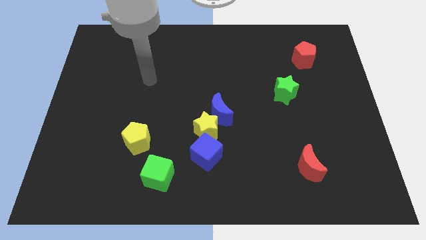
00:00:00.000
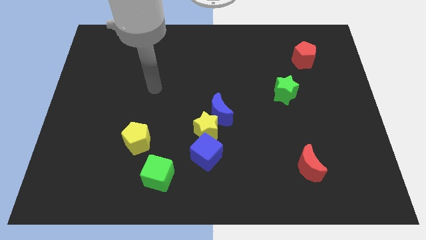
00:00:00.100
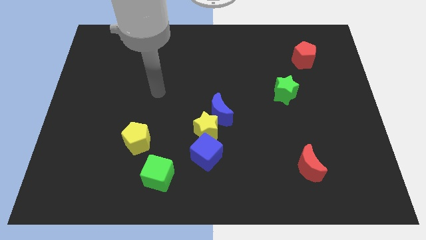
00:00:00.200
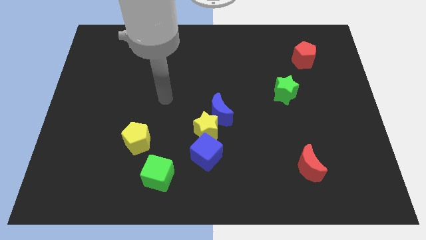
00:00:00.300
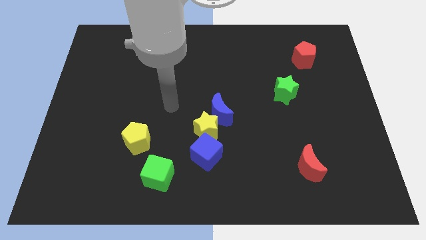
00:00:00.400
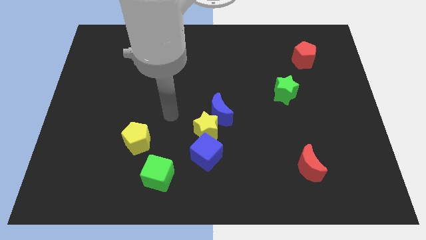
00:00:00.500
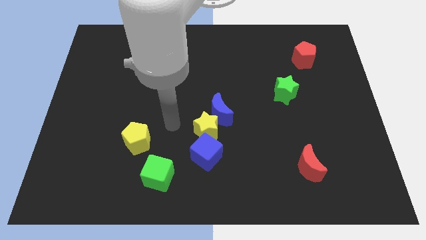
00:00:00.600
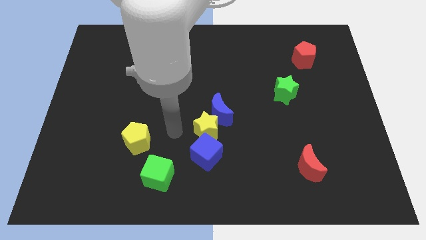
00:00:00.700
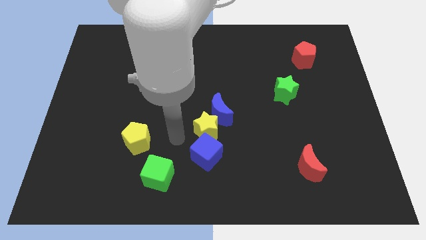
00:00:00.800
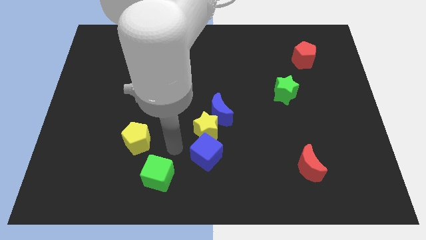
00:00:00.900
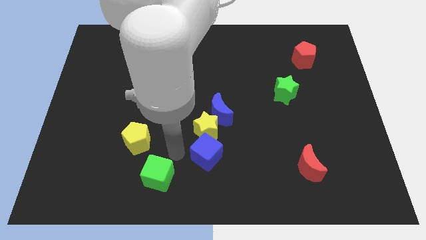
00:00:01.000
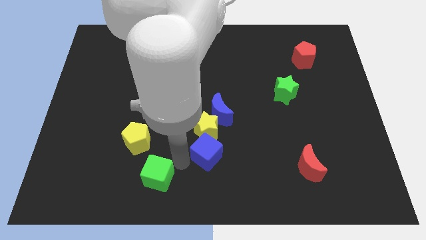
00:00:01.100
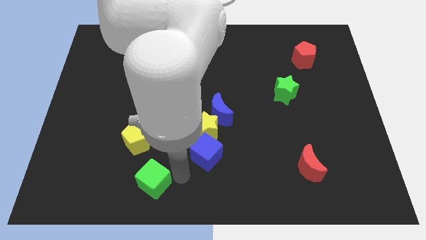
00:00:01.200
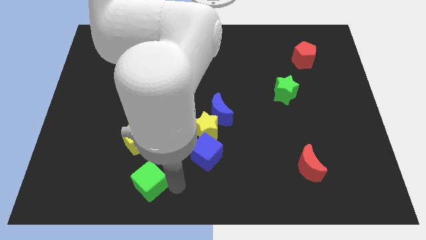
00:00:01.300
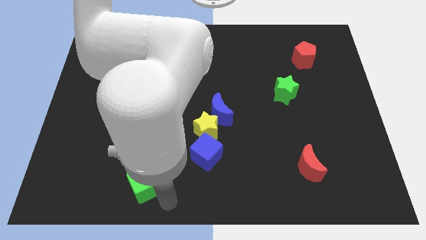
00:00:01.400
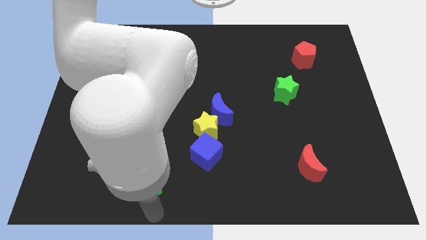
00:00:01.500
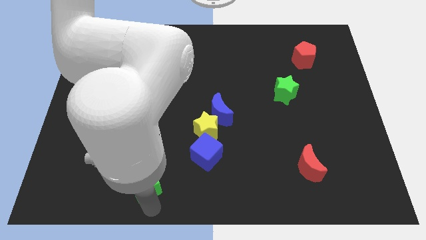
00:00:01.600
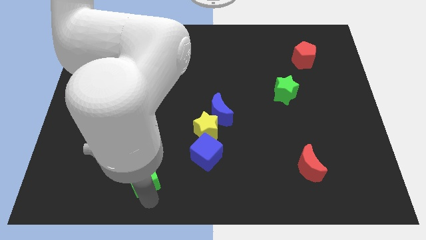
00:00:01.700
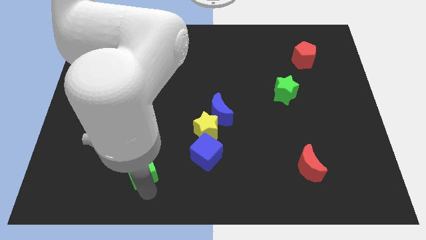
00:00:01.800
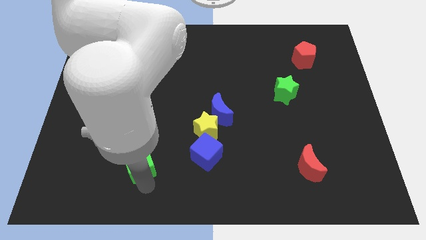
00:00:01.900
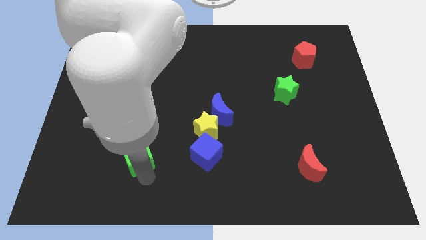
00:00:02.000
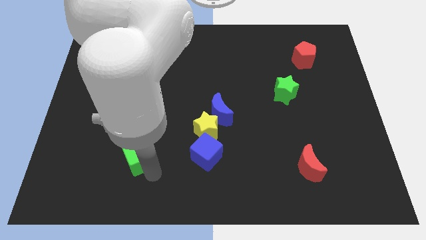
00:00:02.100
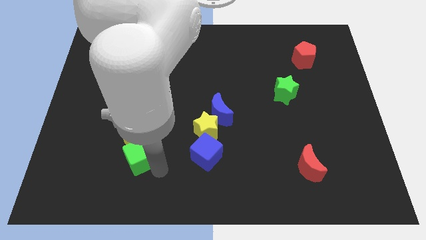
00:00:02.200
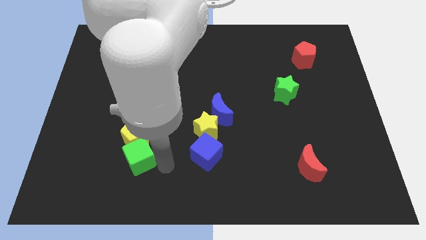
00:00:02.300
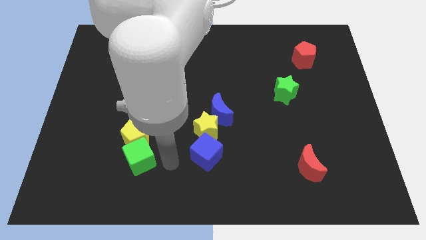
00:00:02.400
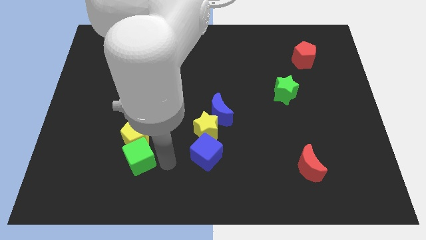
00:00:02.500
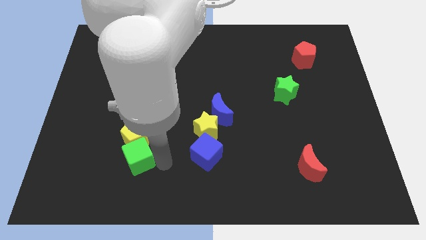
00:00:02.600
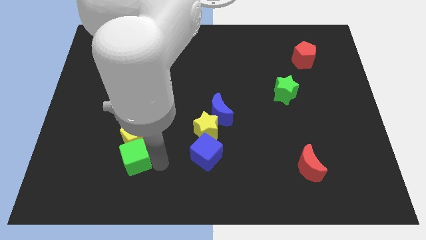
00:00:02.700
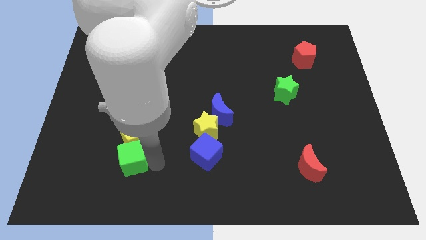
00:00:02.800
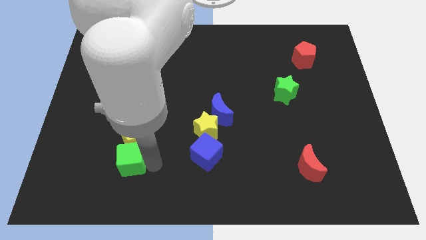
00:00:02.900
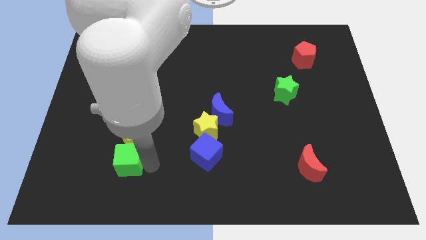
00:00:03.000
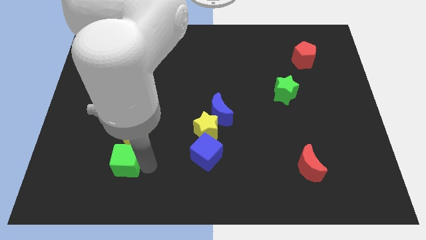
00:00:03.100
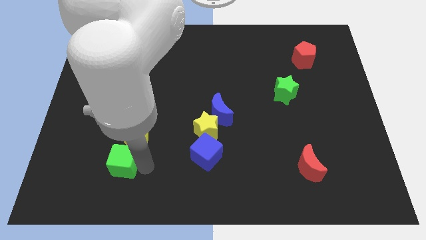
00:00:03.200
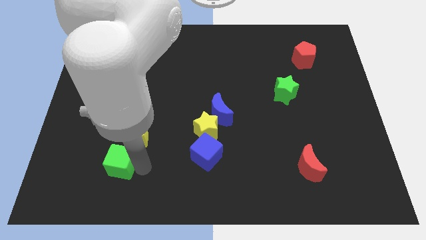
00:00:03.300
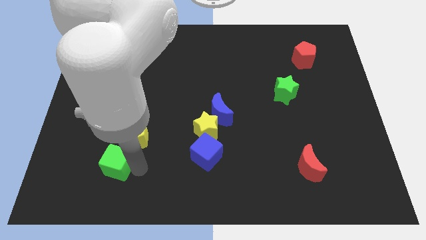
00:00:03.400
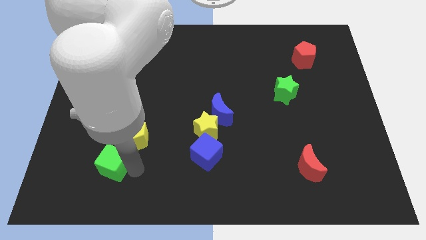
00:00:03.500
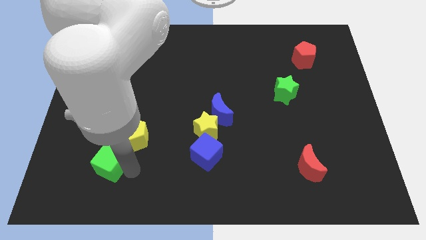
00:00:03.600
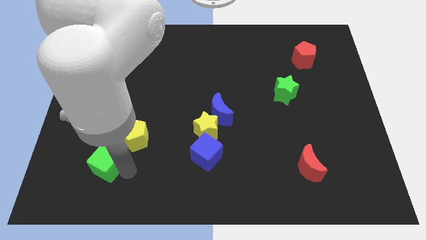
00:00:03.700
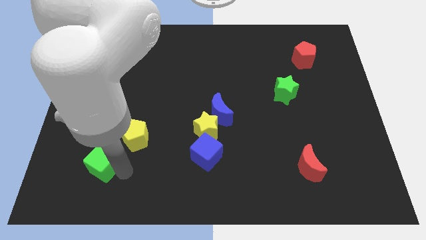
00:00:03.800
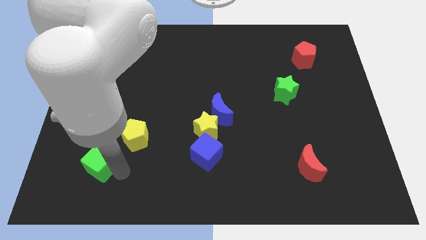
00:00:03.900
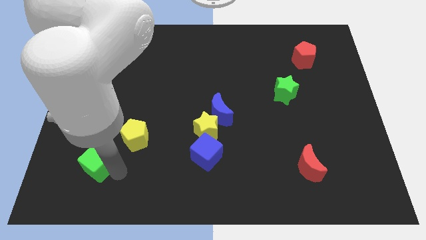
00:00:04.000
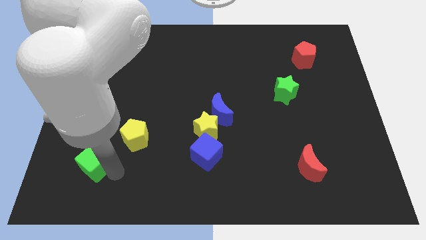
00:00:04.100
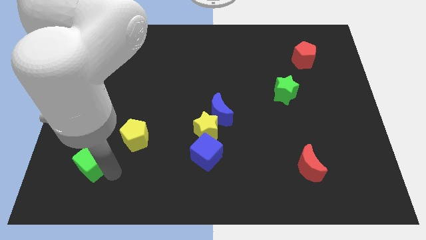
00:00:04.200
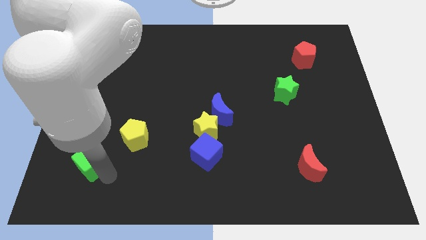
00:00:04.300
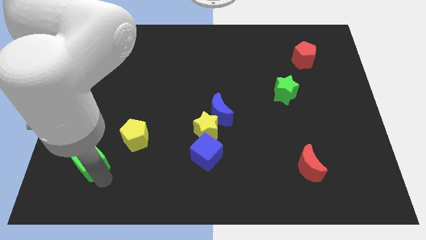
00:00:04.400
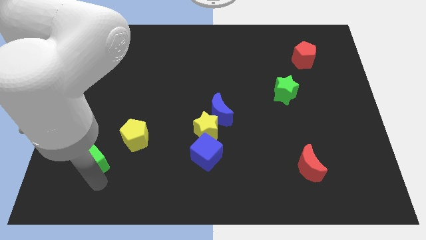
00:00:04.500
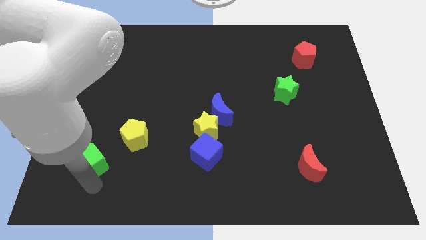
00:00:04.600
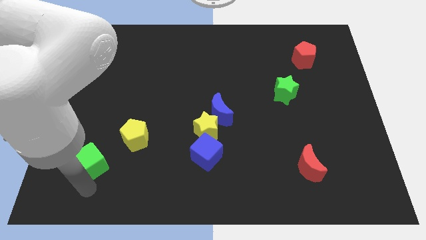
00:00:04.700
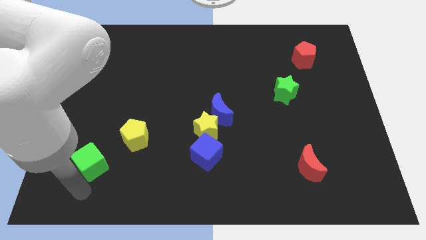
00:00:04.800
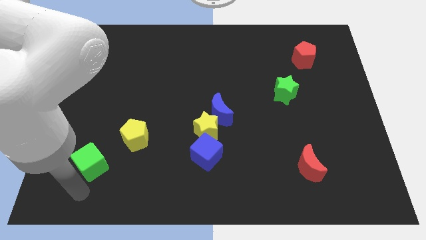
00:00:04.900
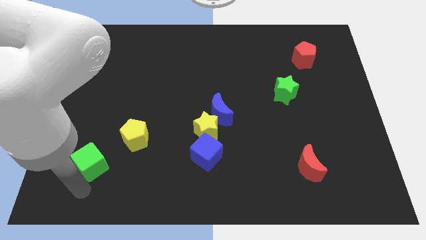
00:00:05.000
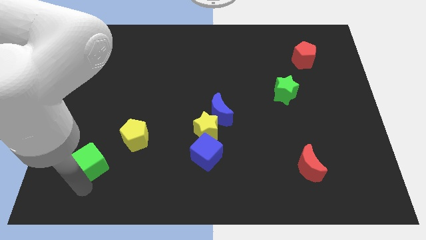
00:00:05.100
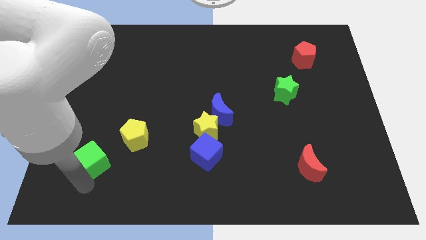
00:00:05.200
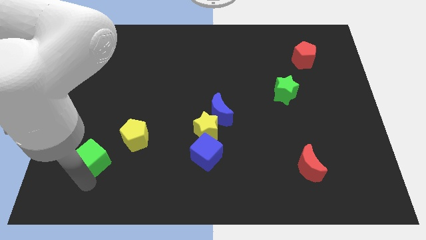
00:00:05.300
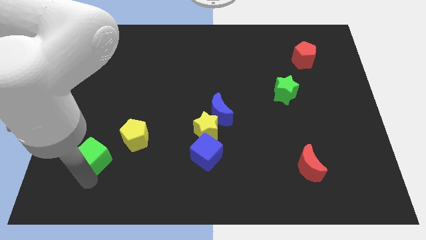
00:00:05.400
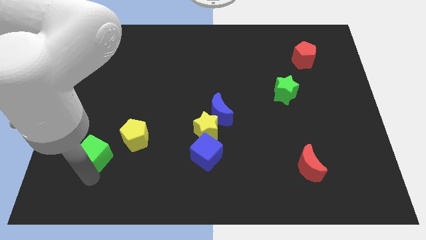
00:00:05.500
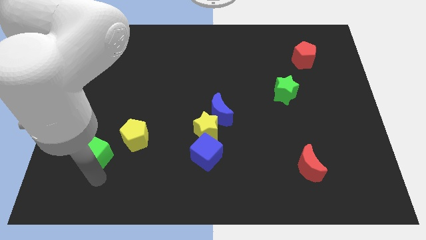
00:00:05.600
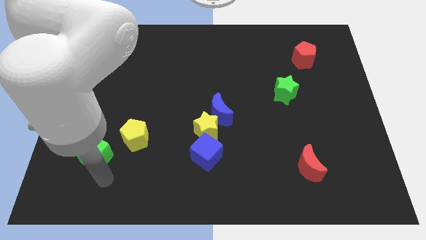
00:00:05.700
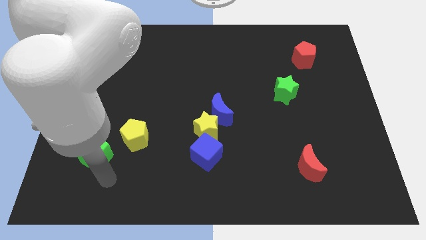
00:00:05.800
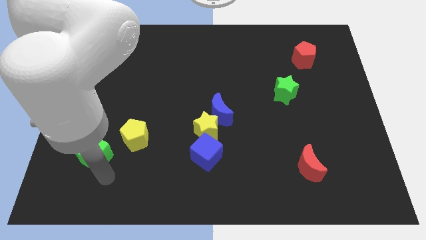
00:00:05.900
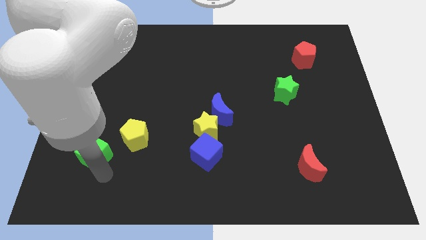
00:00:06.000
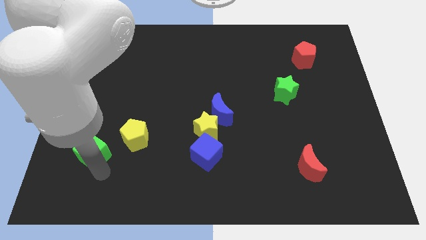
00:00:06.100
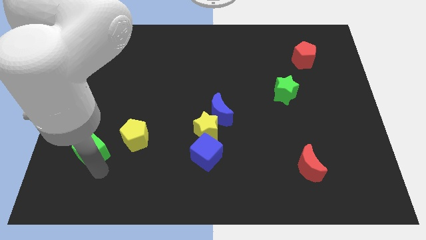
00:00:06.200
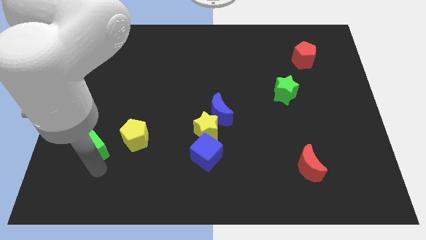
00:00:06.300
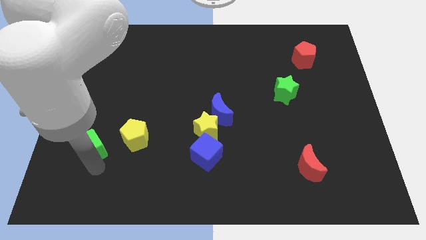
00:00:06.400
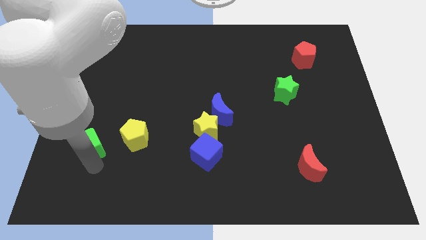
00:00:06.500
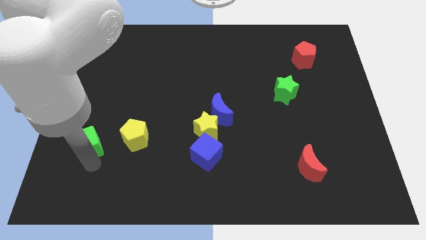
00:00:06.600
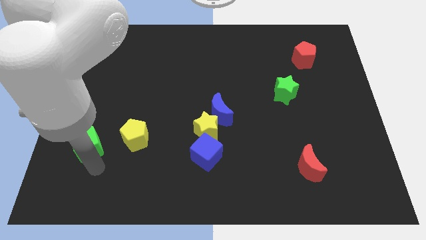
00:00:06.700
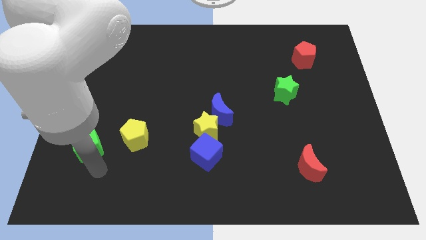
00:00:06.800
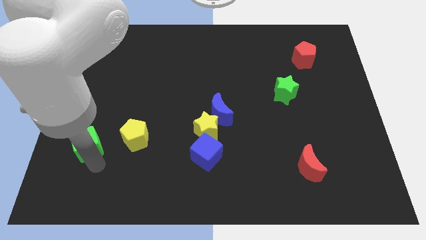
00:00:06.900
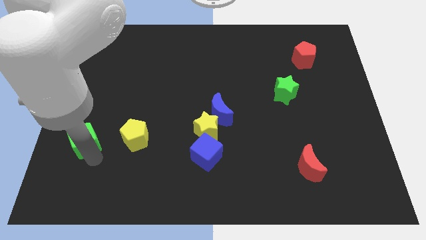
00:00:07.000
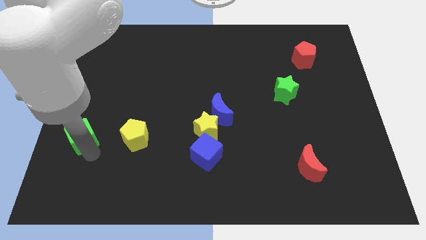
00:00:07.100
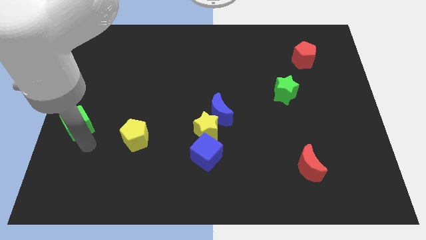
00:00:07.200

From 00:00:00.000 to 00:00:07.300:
push the green cube to the center left
